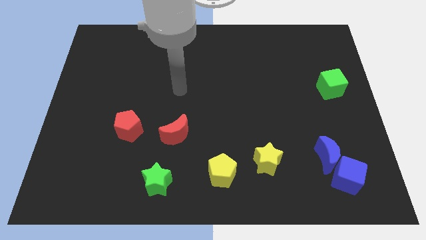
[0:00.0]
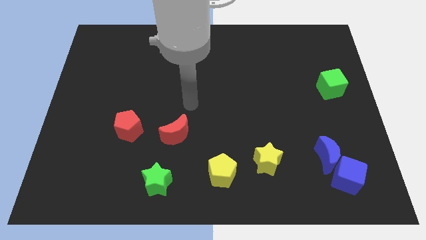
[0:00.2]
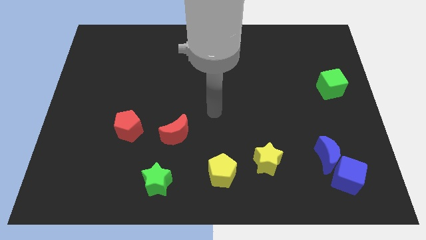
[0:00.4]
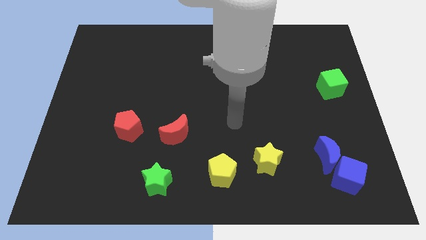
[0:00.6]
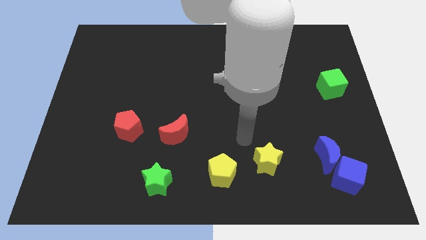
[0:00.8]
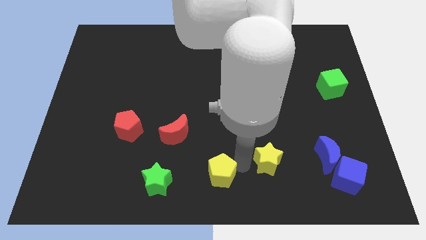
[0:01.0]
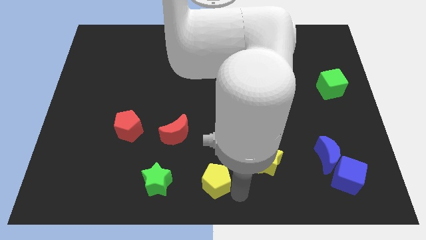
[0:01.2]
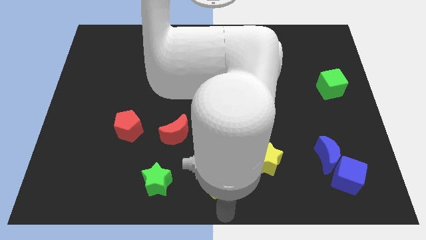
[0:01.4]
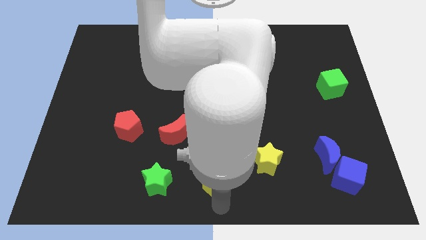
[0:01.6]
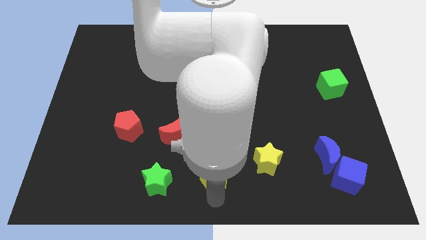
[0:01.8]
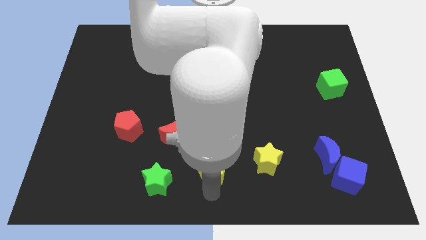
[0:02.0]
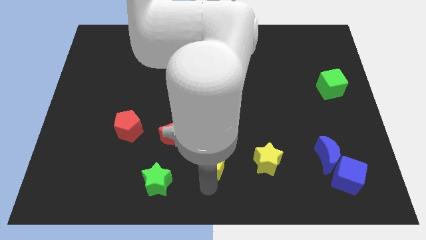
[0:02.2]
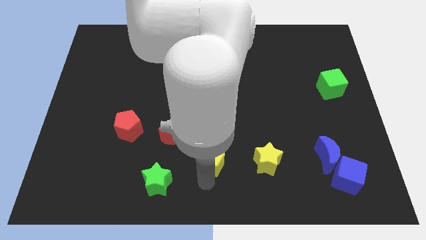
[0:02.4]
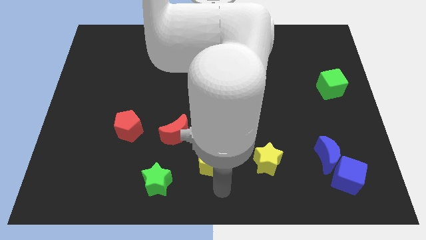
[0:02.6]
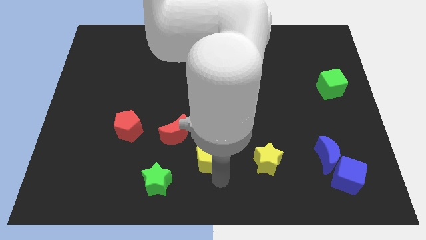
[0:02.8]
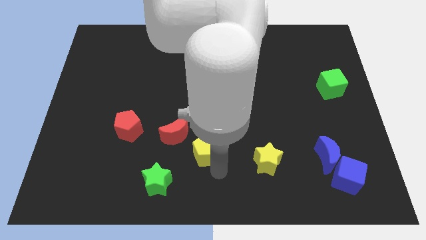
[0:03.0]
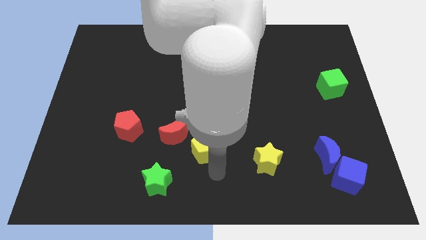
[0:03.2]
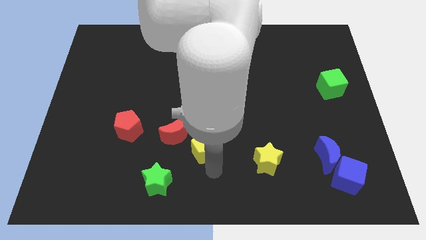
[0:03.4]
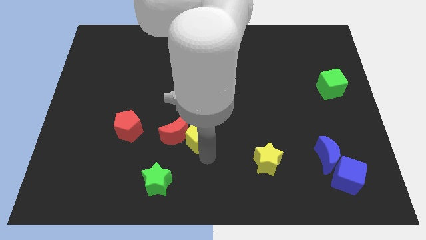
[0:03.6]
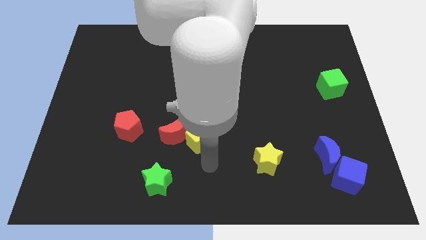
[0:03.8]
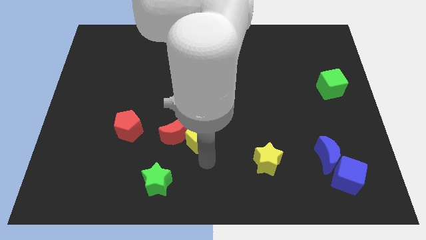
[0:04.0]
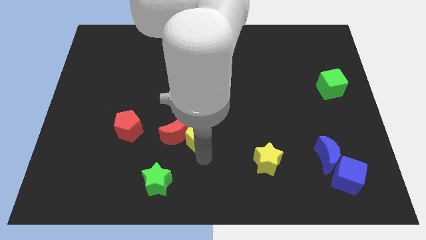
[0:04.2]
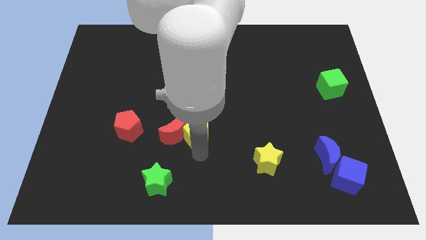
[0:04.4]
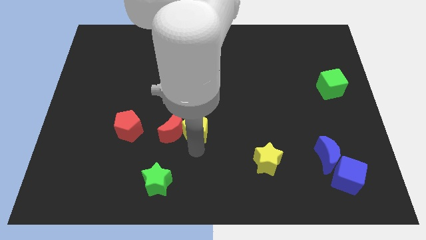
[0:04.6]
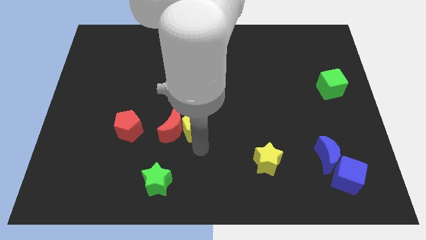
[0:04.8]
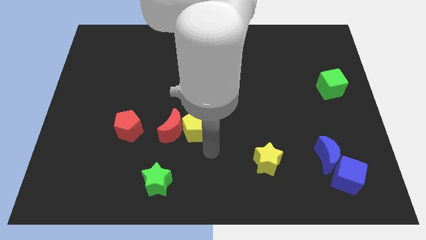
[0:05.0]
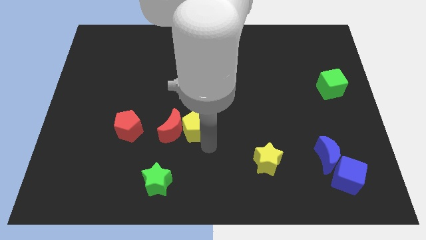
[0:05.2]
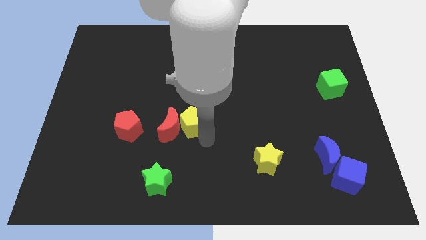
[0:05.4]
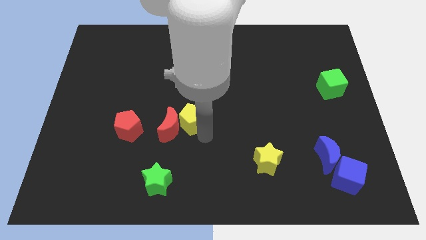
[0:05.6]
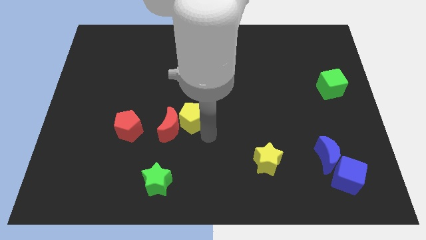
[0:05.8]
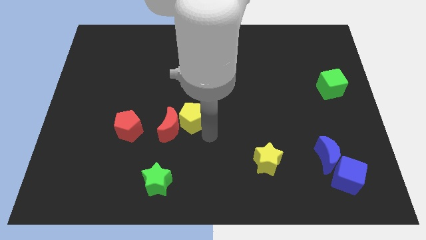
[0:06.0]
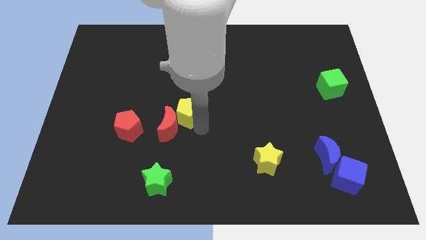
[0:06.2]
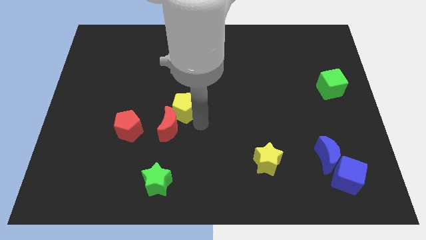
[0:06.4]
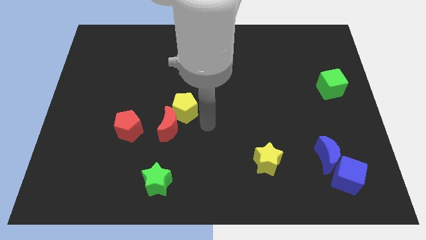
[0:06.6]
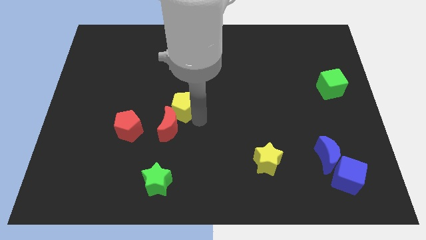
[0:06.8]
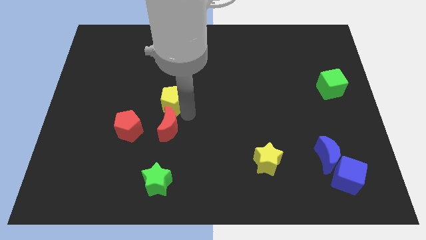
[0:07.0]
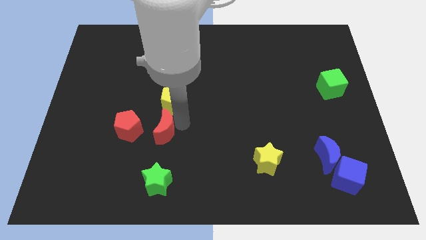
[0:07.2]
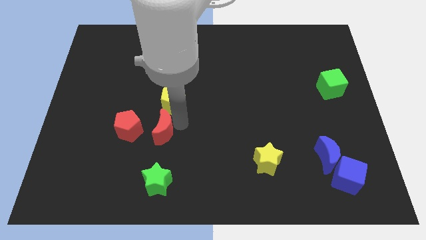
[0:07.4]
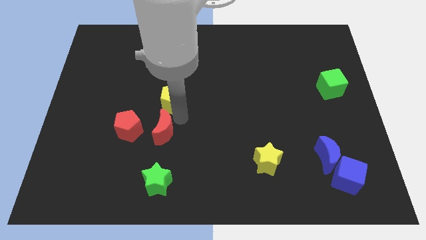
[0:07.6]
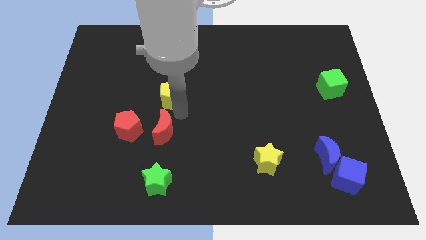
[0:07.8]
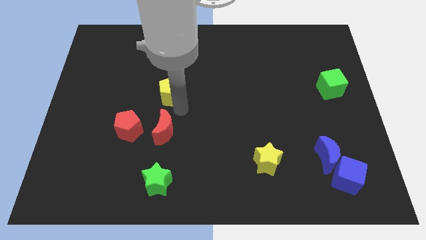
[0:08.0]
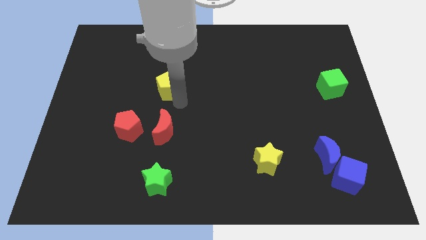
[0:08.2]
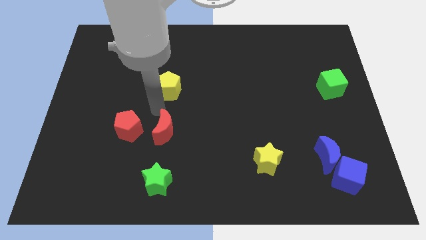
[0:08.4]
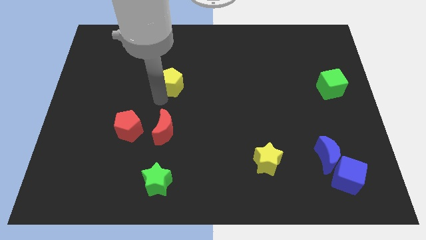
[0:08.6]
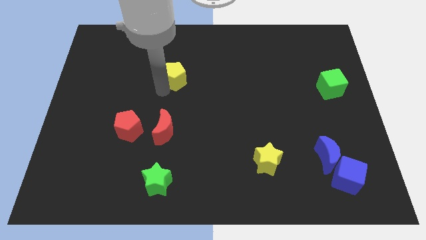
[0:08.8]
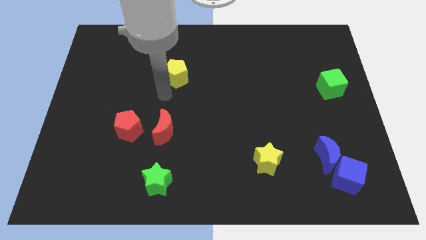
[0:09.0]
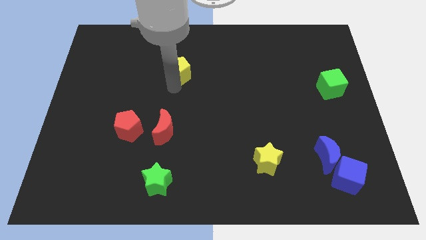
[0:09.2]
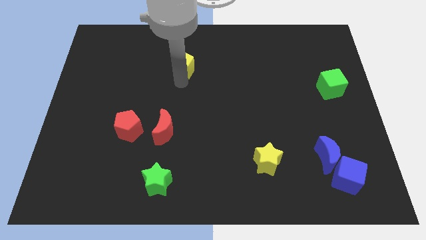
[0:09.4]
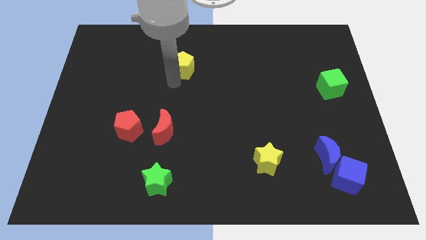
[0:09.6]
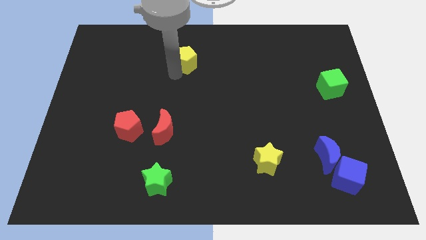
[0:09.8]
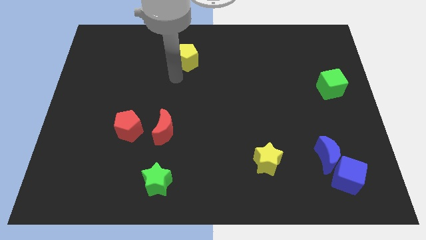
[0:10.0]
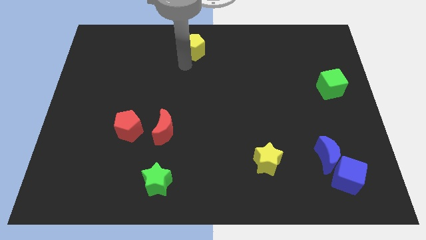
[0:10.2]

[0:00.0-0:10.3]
push the yellow pentagon to the top
